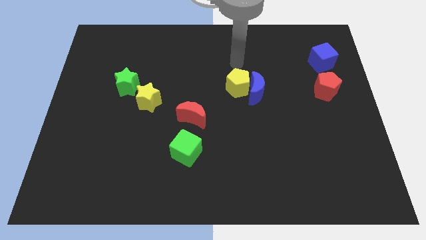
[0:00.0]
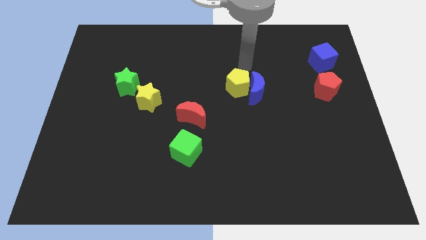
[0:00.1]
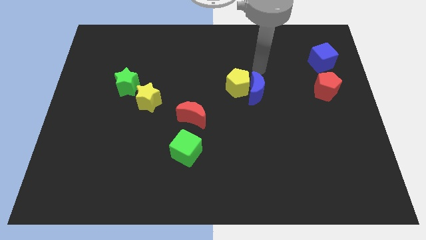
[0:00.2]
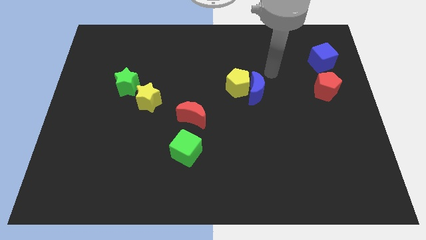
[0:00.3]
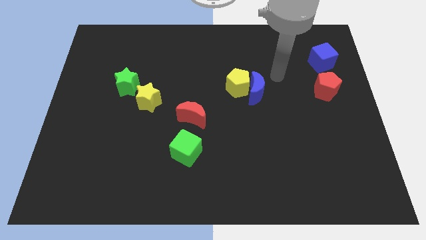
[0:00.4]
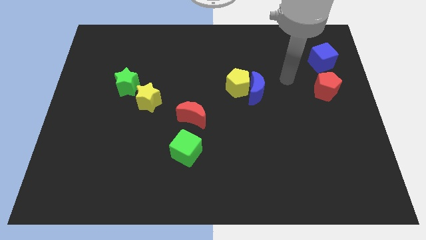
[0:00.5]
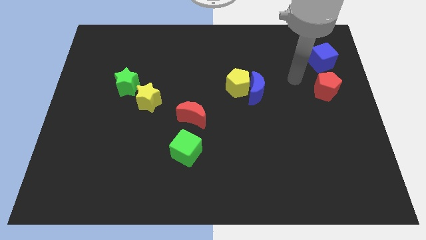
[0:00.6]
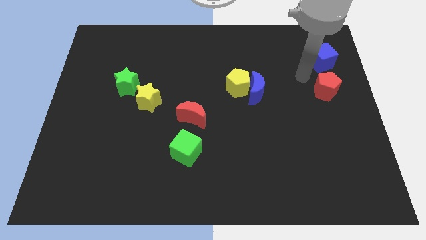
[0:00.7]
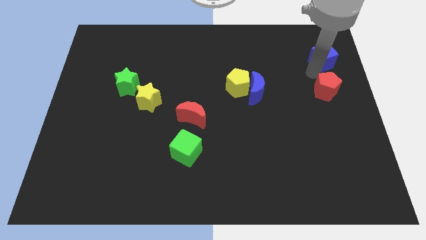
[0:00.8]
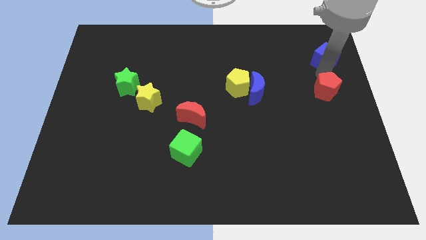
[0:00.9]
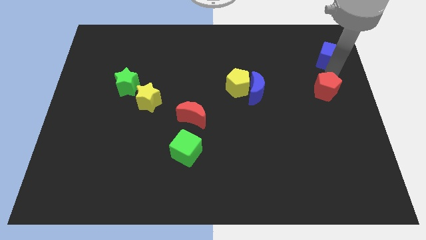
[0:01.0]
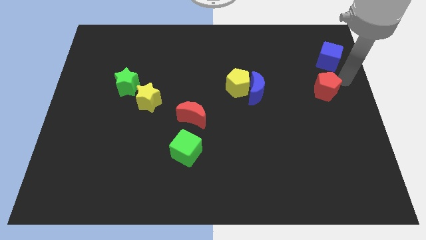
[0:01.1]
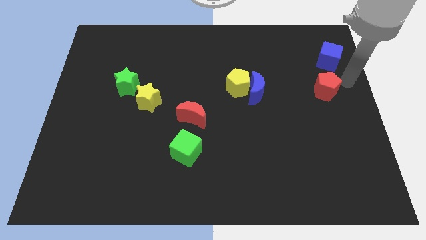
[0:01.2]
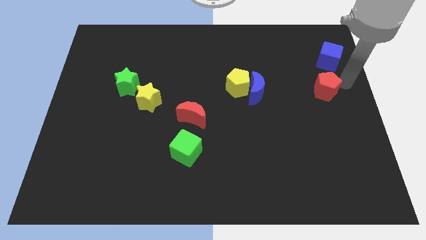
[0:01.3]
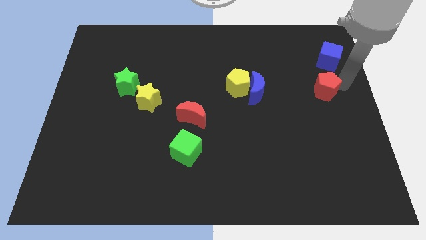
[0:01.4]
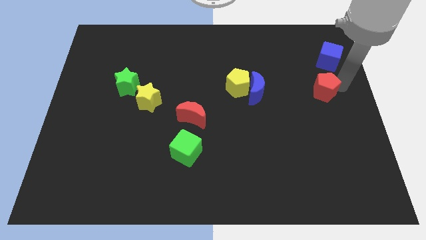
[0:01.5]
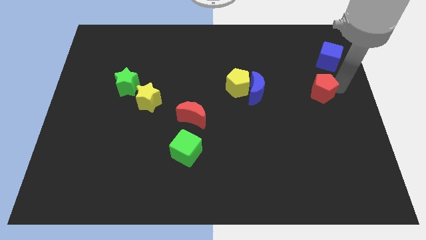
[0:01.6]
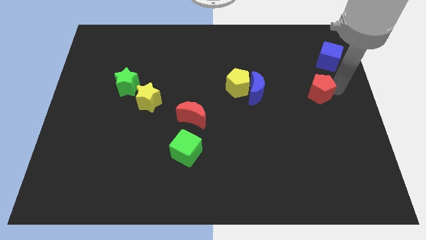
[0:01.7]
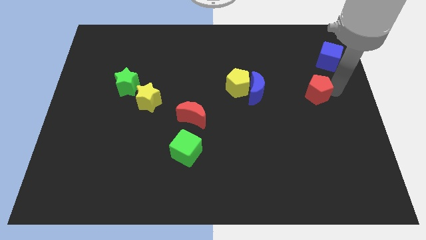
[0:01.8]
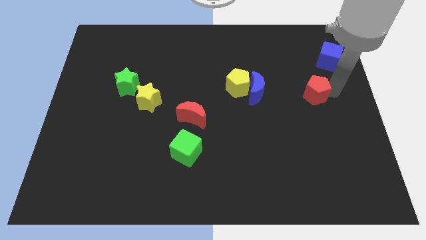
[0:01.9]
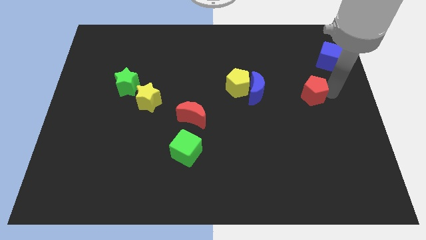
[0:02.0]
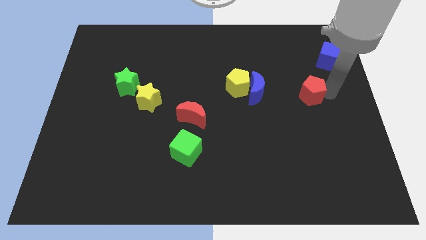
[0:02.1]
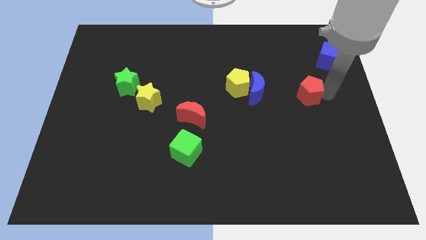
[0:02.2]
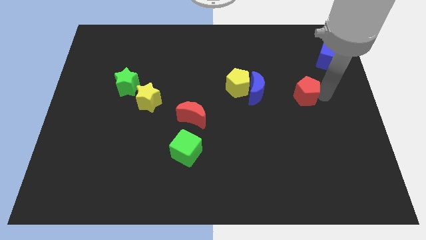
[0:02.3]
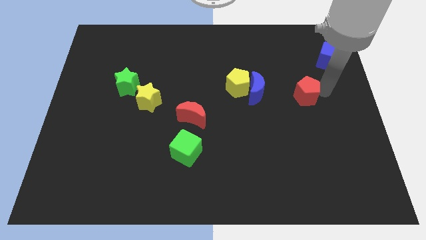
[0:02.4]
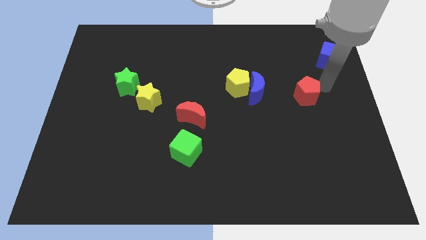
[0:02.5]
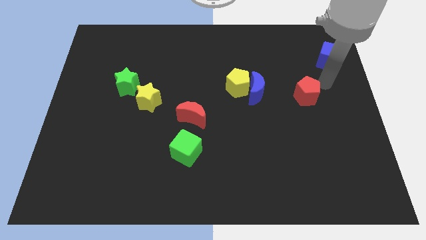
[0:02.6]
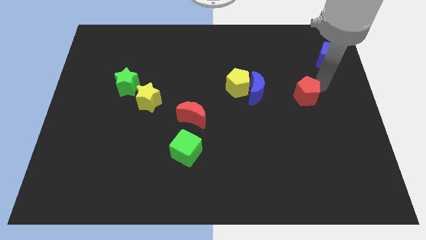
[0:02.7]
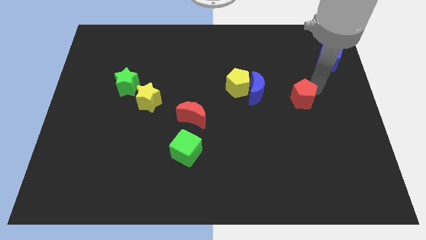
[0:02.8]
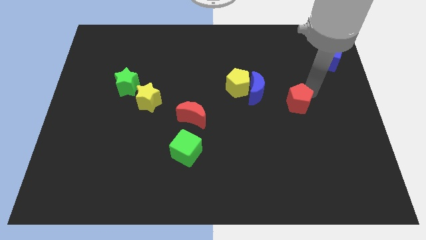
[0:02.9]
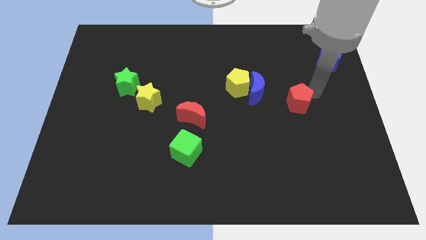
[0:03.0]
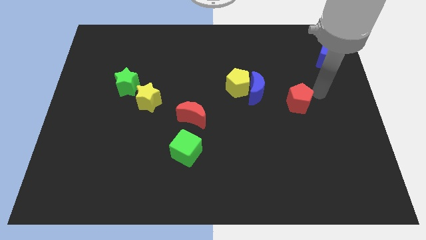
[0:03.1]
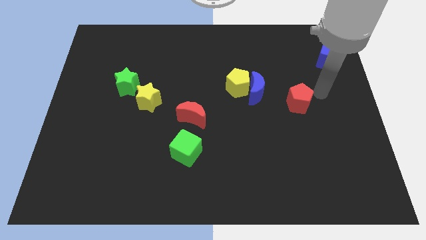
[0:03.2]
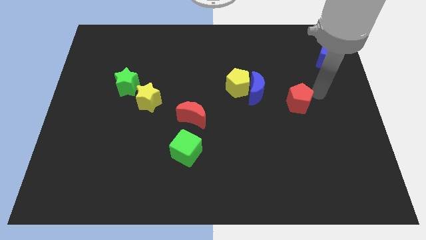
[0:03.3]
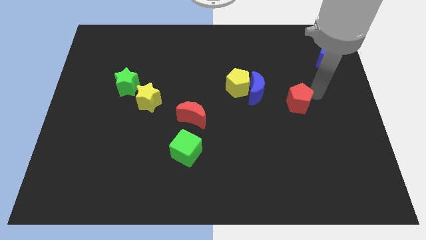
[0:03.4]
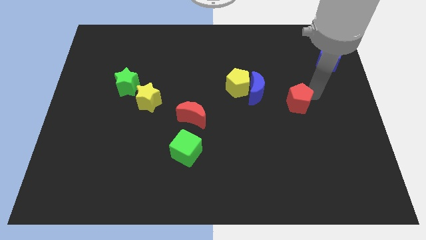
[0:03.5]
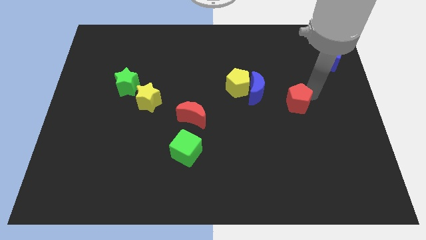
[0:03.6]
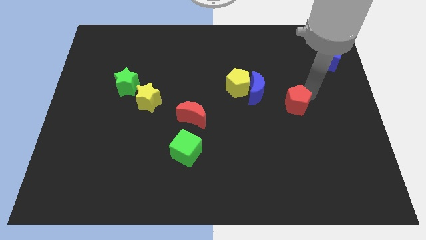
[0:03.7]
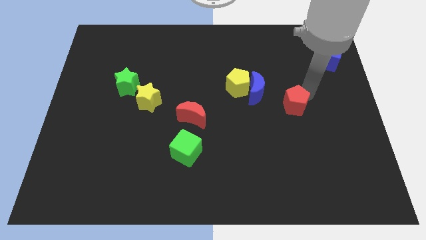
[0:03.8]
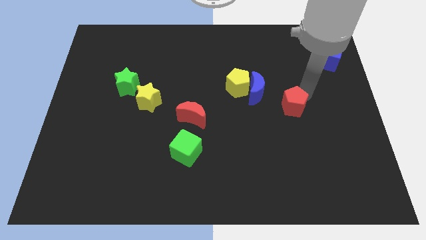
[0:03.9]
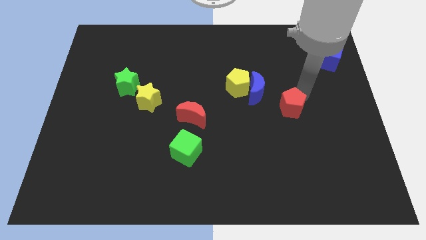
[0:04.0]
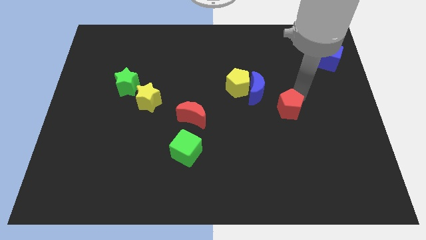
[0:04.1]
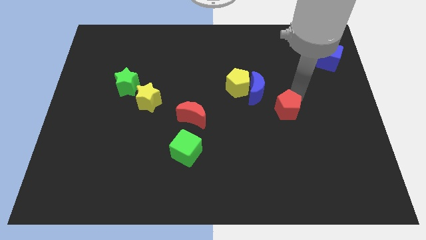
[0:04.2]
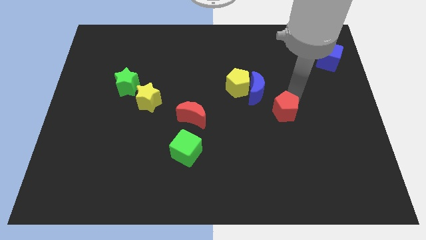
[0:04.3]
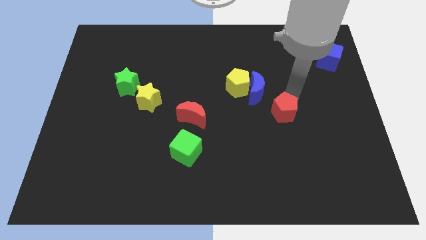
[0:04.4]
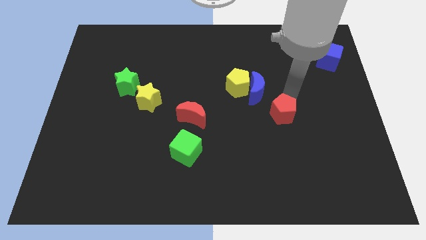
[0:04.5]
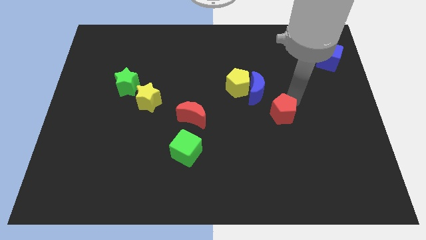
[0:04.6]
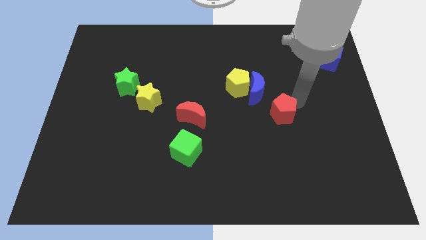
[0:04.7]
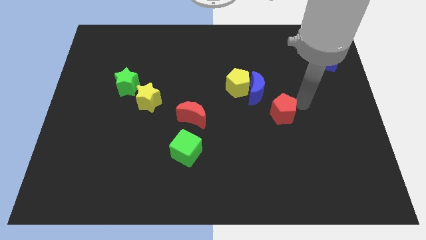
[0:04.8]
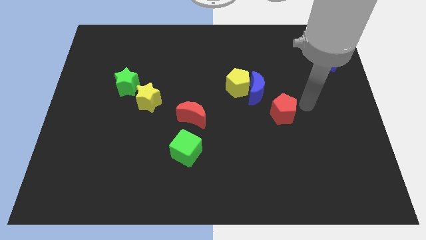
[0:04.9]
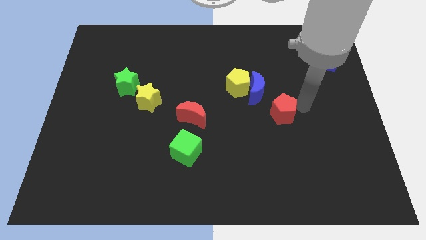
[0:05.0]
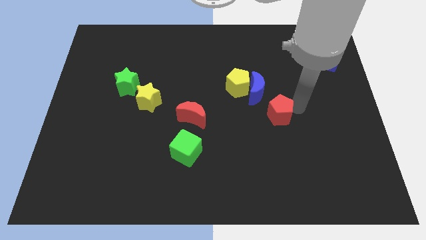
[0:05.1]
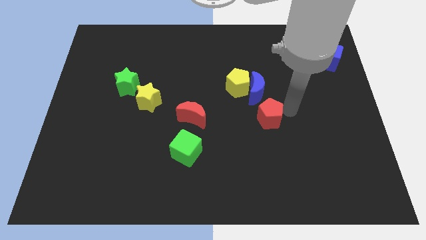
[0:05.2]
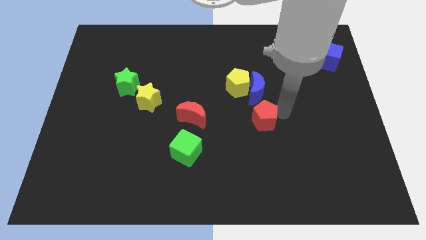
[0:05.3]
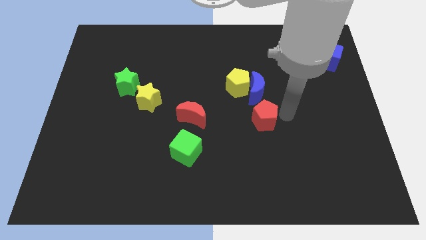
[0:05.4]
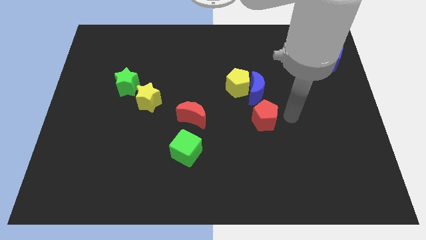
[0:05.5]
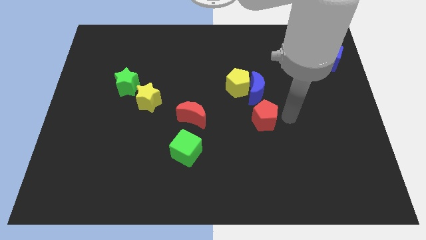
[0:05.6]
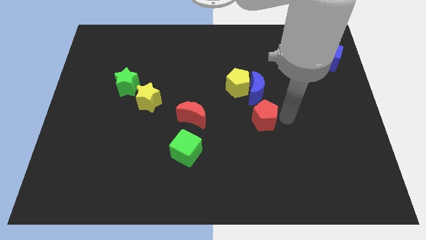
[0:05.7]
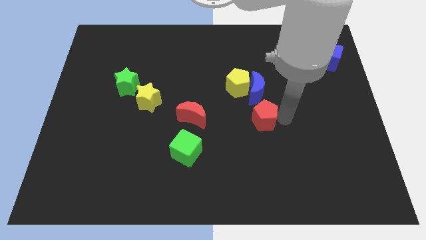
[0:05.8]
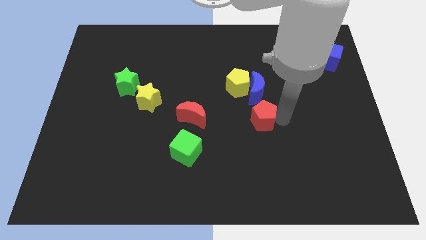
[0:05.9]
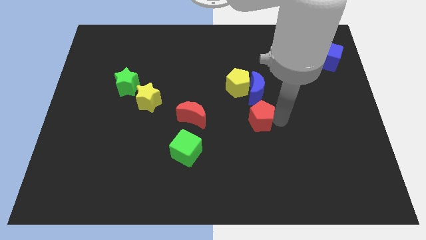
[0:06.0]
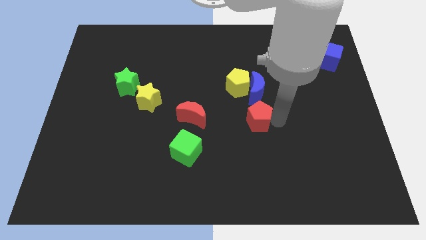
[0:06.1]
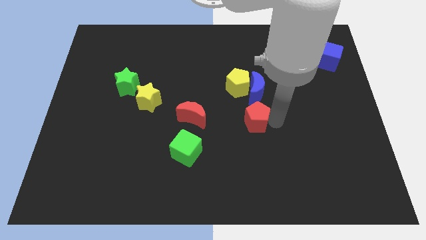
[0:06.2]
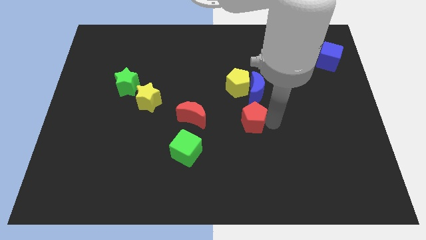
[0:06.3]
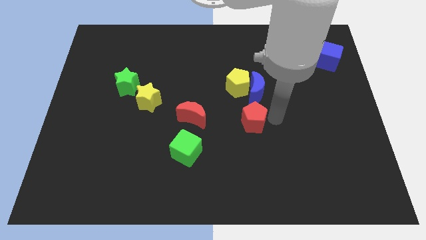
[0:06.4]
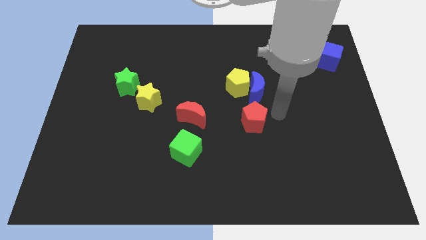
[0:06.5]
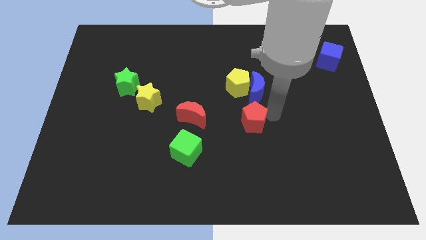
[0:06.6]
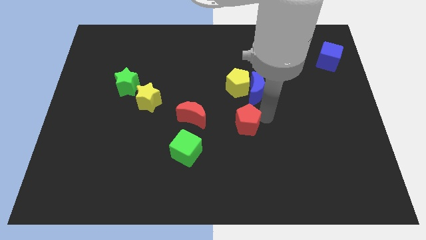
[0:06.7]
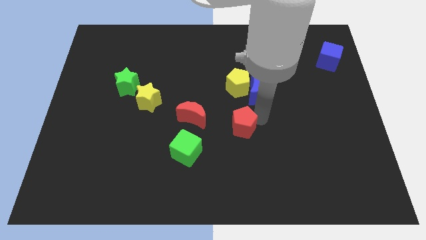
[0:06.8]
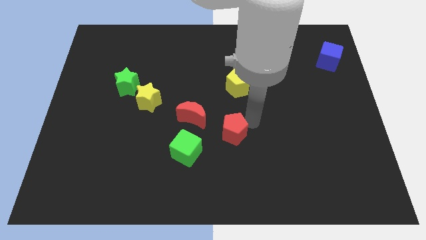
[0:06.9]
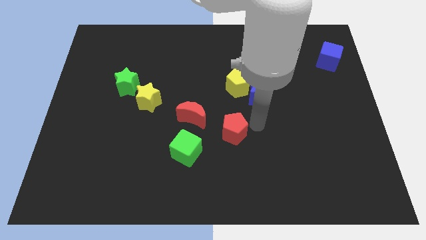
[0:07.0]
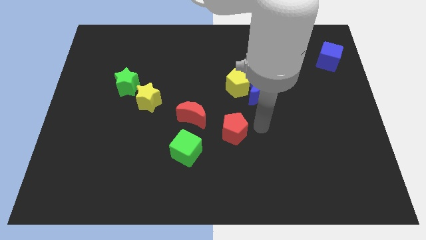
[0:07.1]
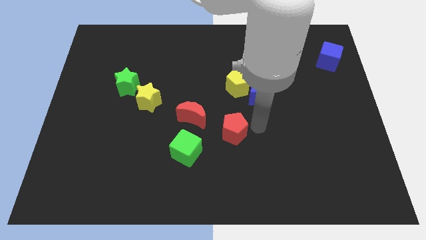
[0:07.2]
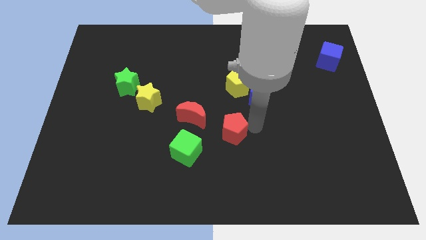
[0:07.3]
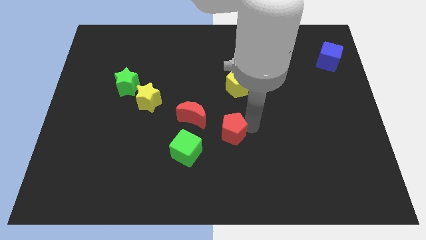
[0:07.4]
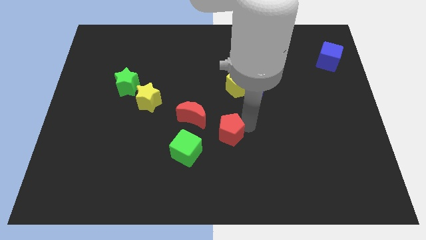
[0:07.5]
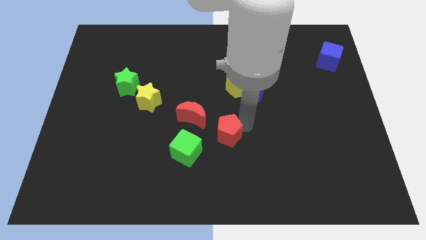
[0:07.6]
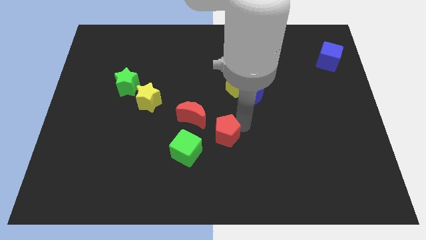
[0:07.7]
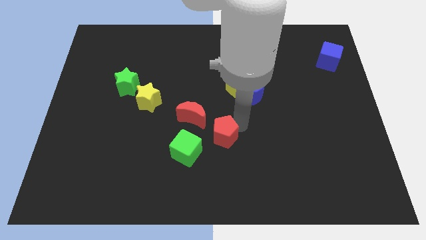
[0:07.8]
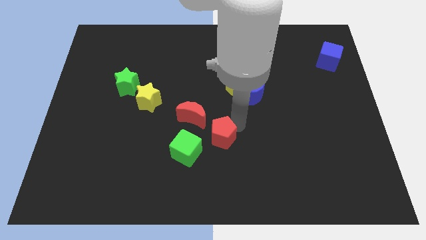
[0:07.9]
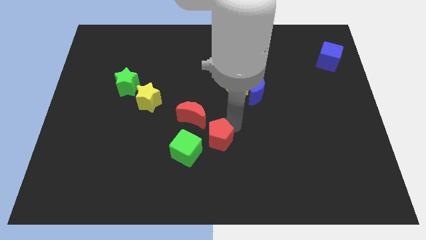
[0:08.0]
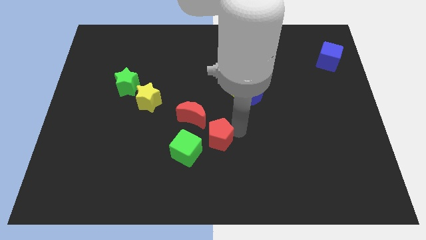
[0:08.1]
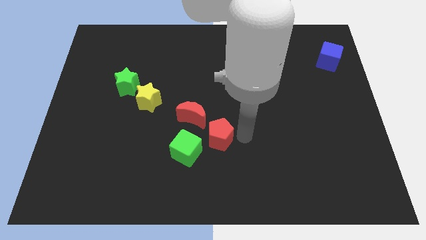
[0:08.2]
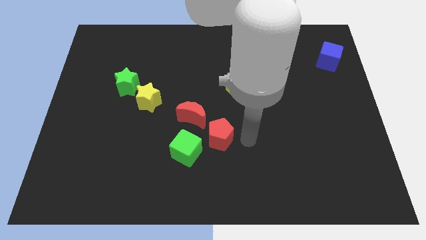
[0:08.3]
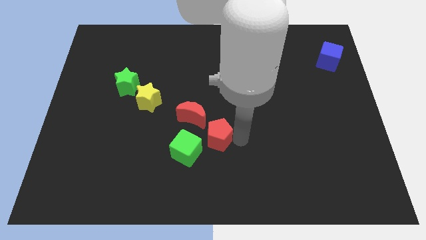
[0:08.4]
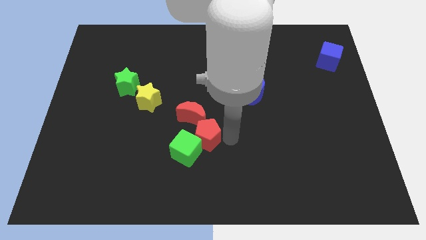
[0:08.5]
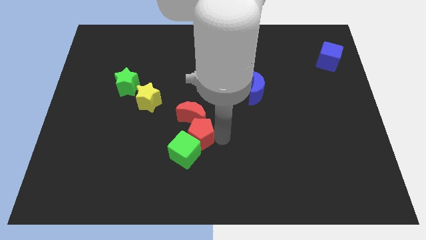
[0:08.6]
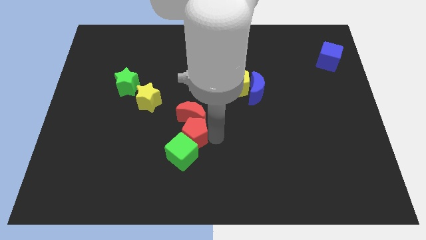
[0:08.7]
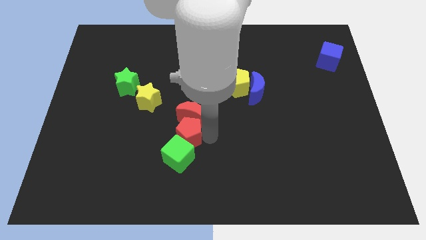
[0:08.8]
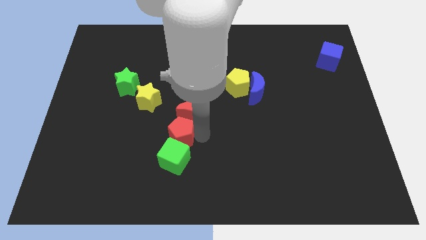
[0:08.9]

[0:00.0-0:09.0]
put the red pentagon to the top left side of the green cube
